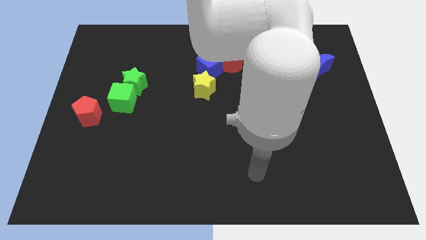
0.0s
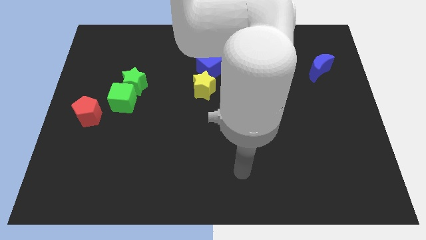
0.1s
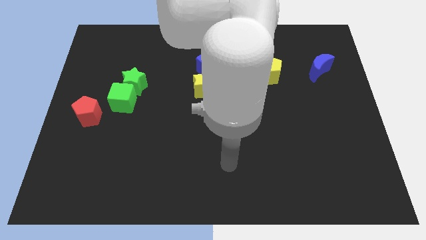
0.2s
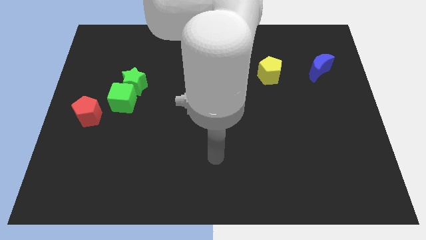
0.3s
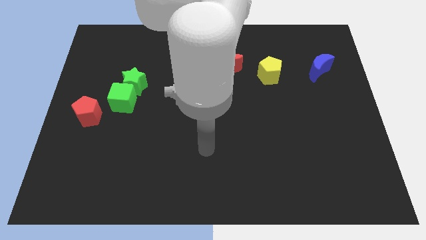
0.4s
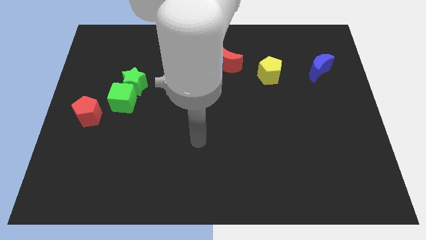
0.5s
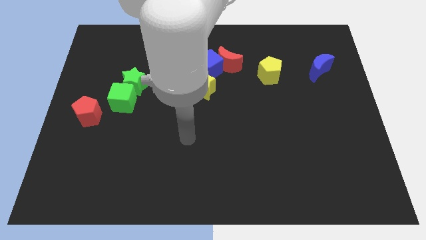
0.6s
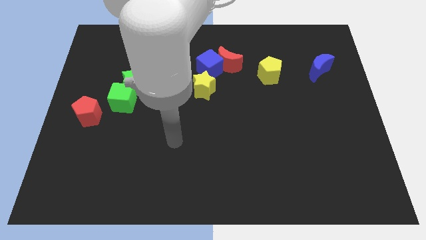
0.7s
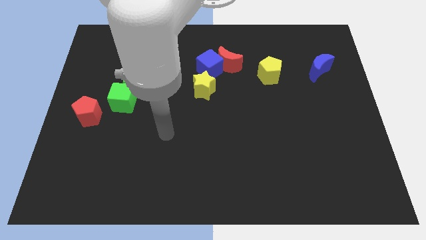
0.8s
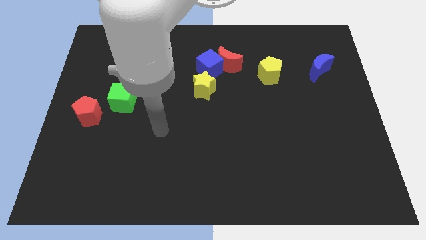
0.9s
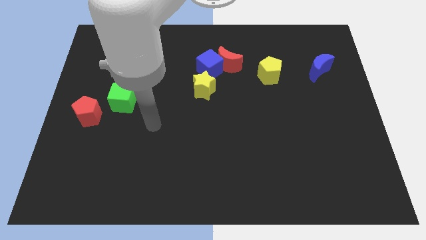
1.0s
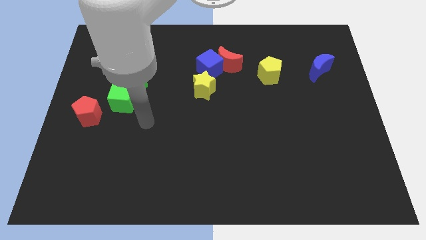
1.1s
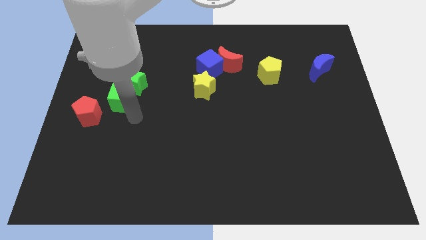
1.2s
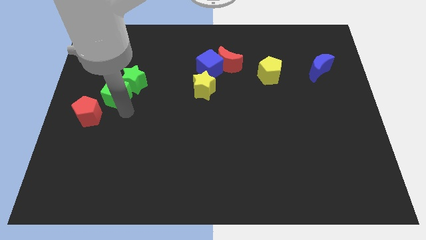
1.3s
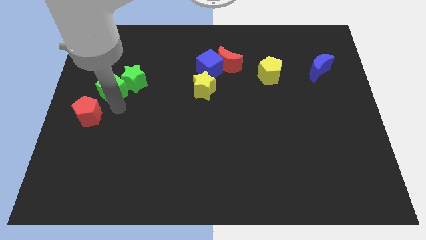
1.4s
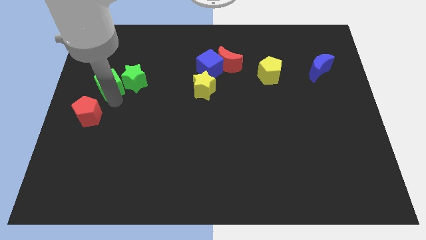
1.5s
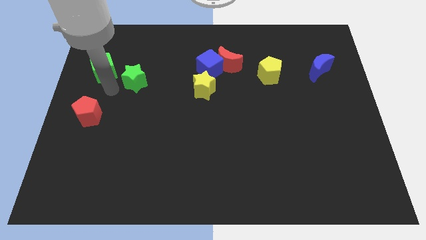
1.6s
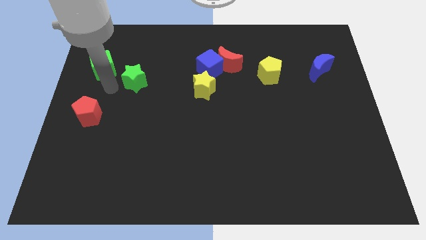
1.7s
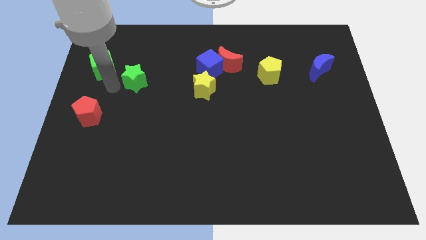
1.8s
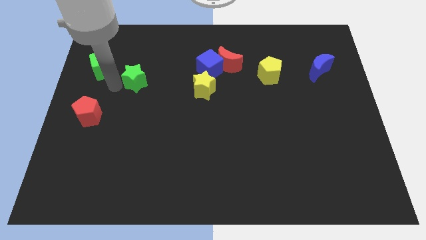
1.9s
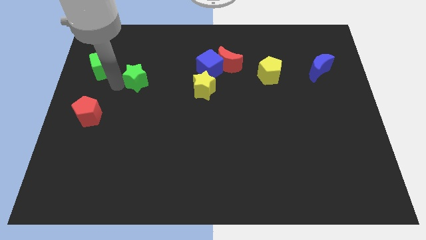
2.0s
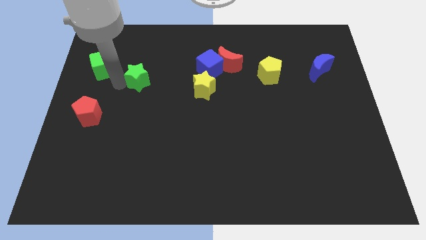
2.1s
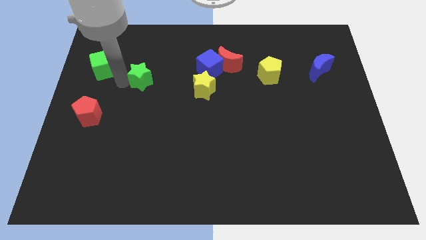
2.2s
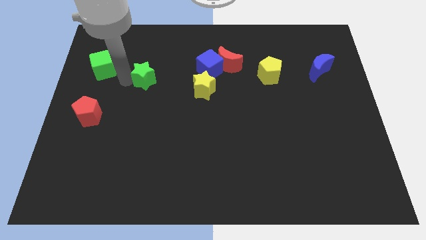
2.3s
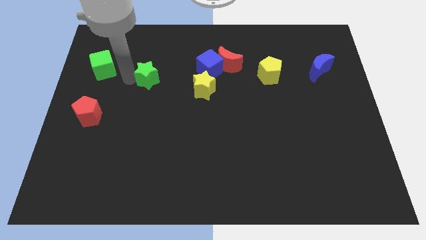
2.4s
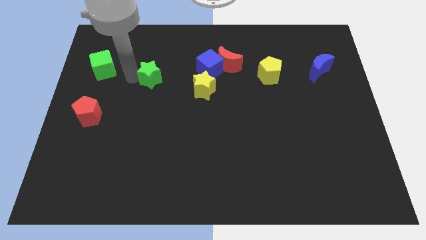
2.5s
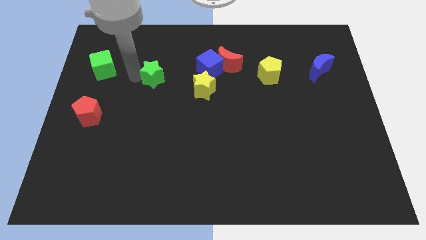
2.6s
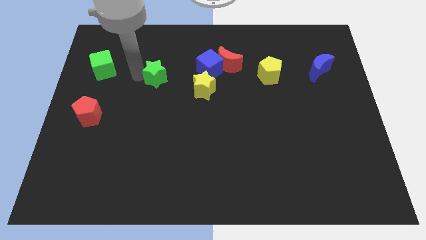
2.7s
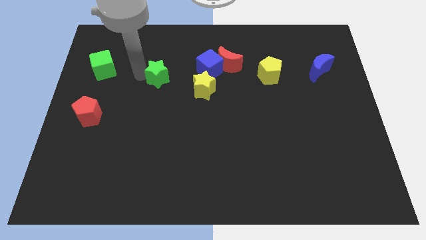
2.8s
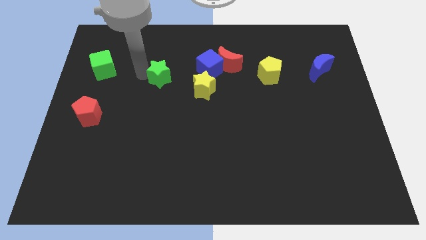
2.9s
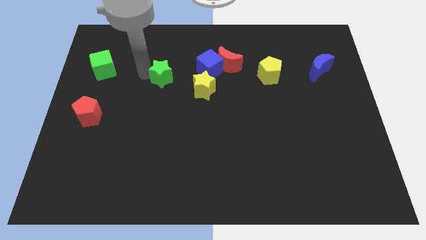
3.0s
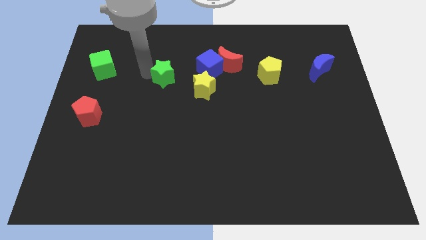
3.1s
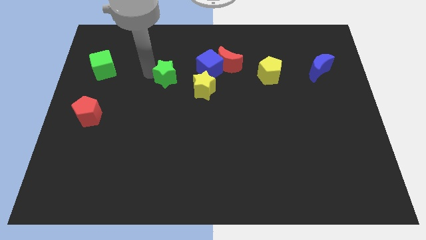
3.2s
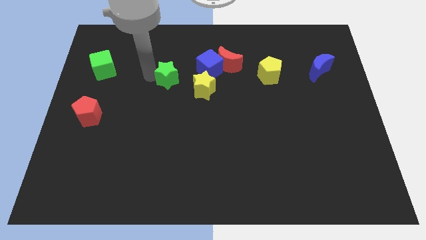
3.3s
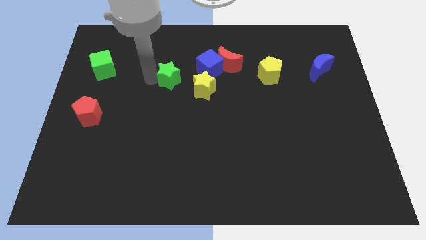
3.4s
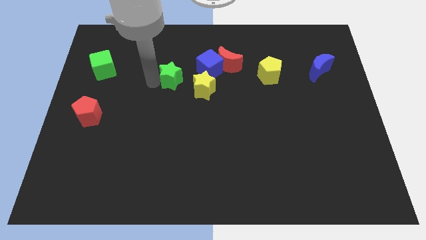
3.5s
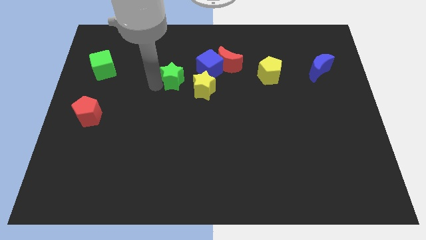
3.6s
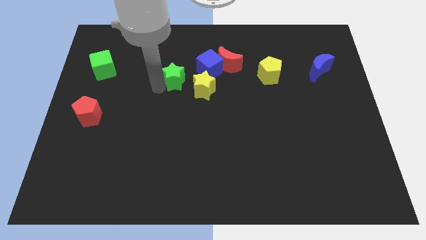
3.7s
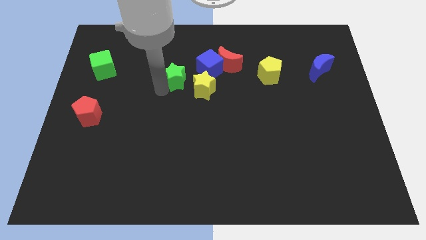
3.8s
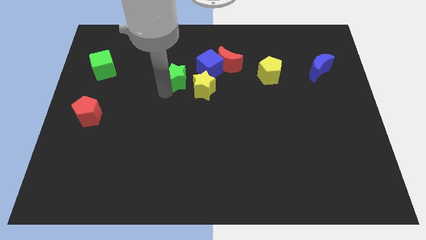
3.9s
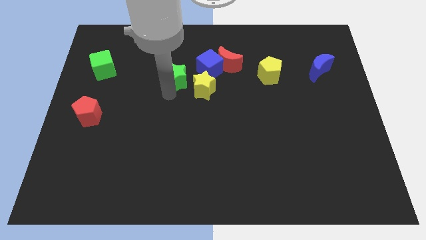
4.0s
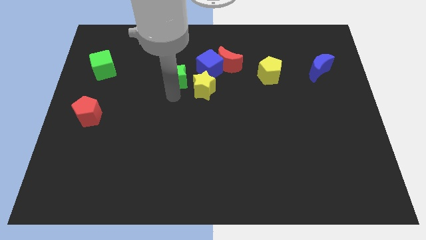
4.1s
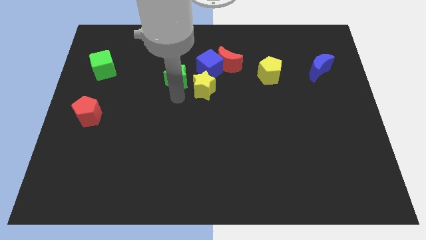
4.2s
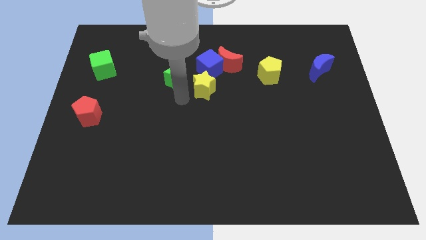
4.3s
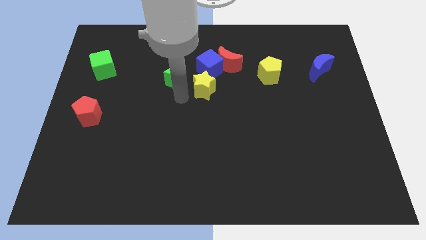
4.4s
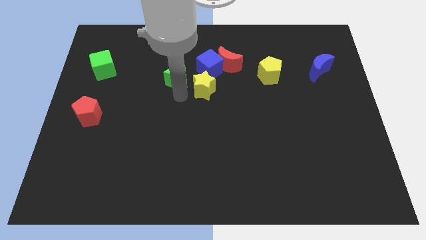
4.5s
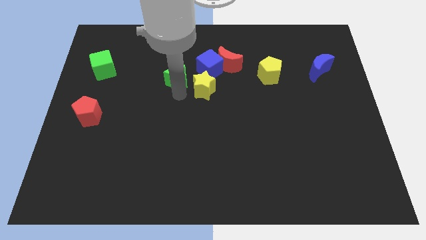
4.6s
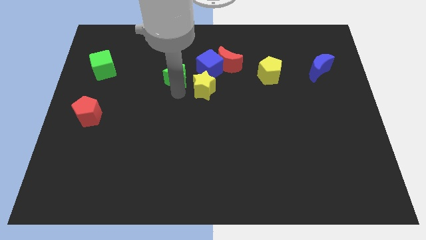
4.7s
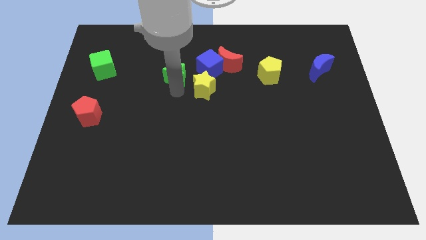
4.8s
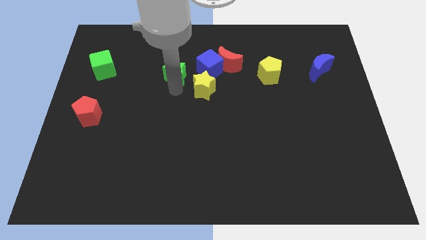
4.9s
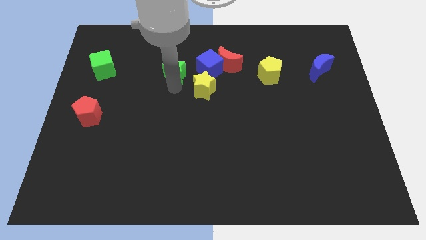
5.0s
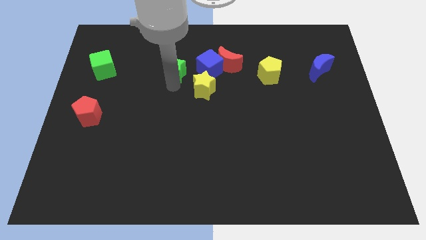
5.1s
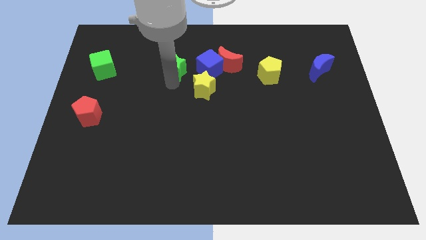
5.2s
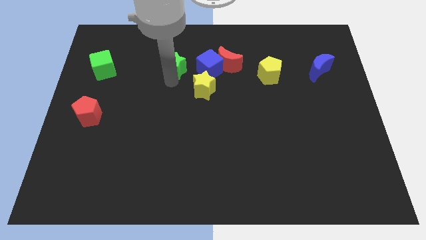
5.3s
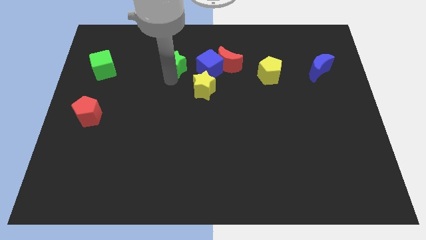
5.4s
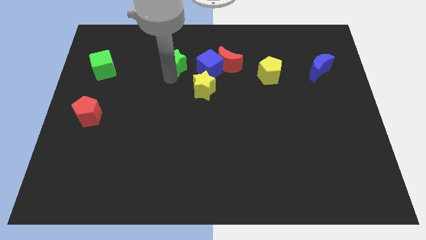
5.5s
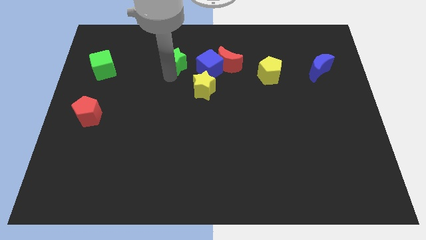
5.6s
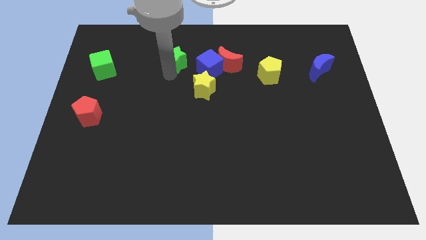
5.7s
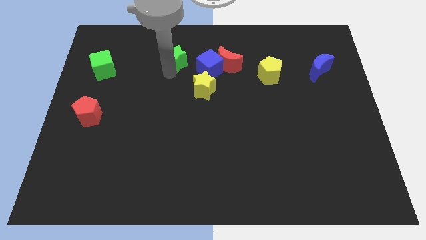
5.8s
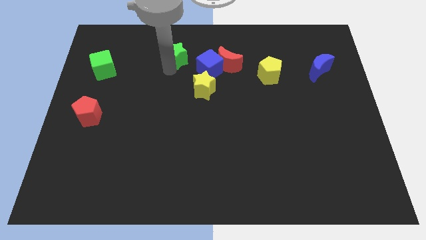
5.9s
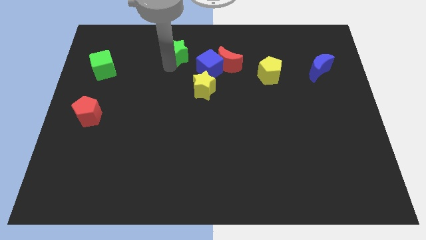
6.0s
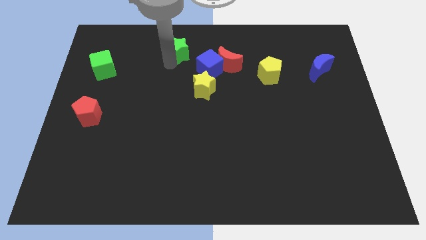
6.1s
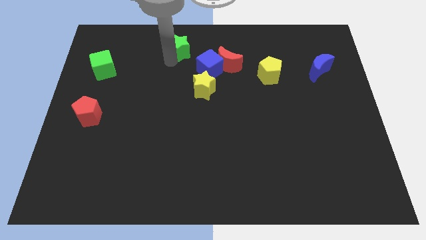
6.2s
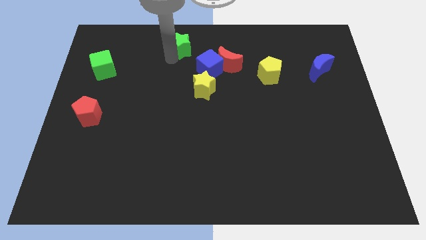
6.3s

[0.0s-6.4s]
push the green star to the top

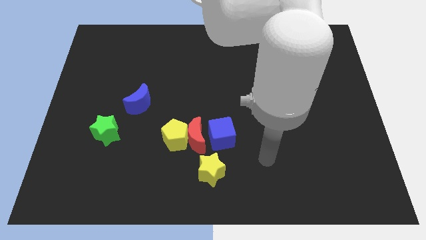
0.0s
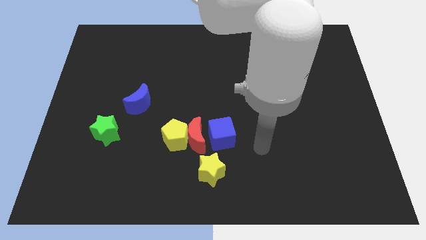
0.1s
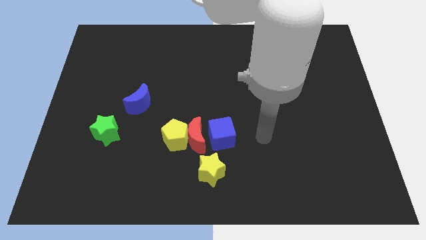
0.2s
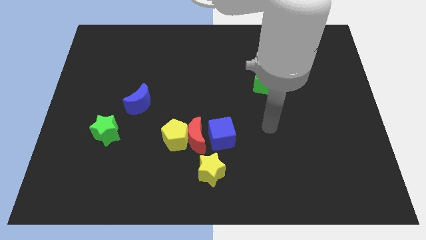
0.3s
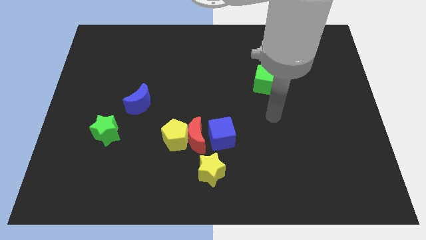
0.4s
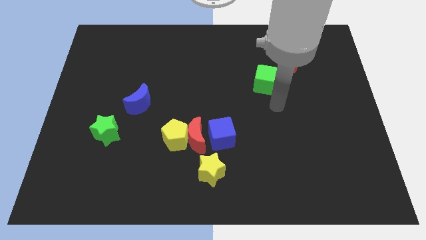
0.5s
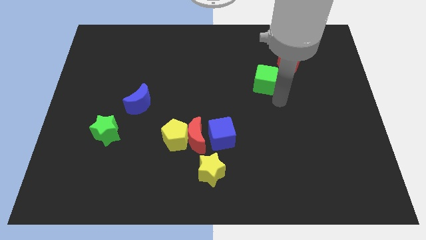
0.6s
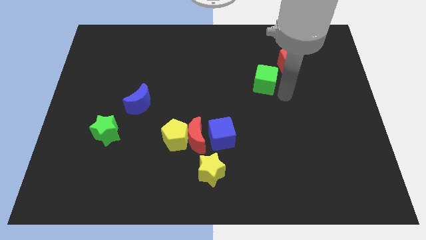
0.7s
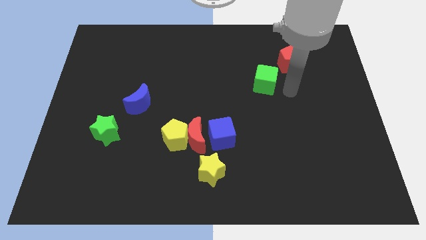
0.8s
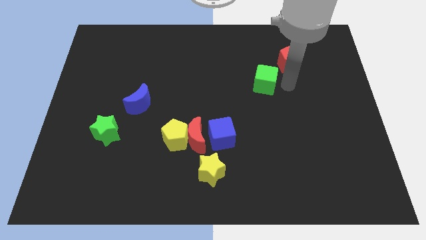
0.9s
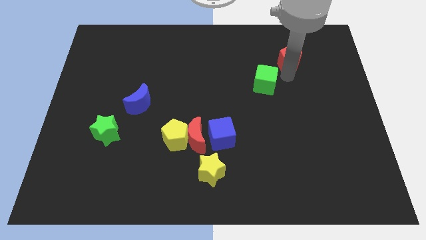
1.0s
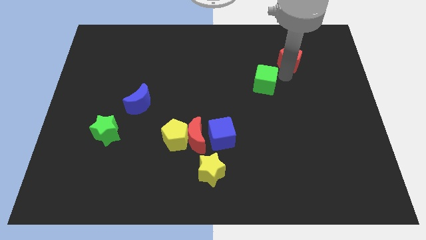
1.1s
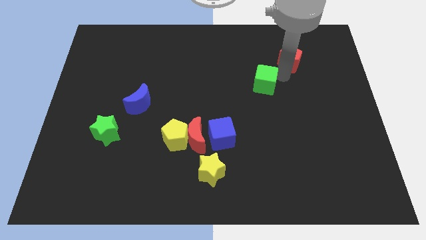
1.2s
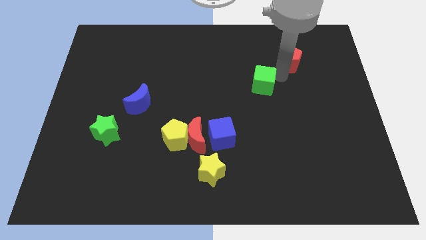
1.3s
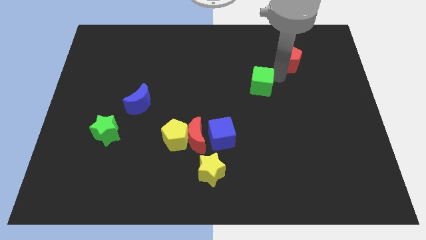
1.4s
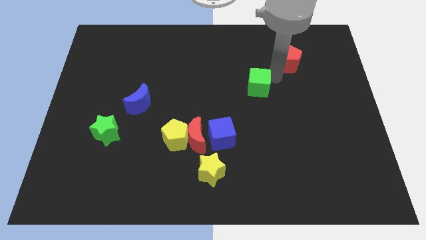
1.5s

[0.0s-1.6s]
move the green cube to the middle
